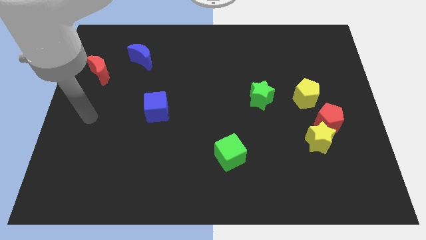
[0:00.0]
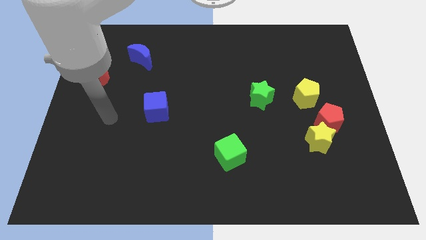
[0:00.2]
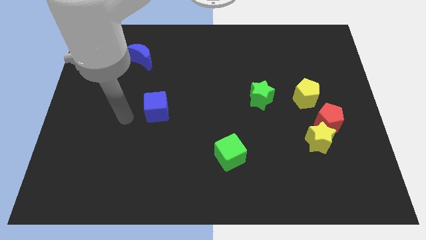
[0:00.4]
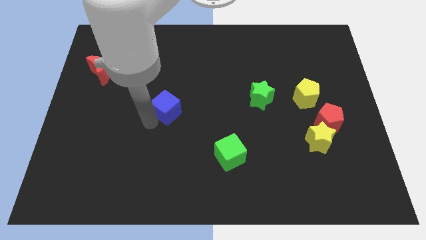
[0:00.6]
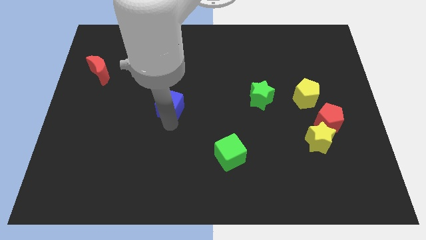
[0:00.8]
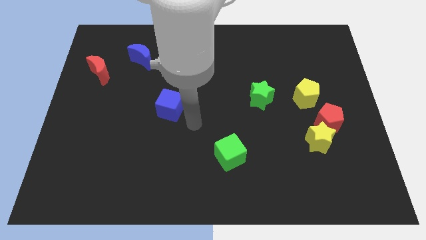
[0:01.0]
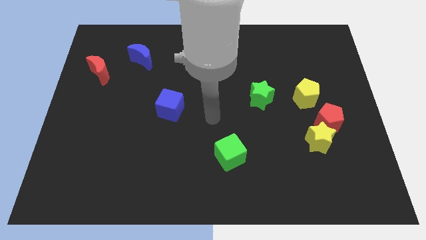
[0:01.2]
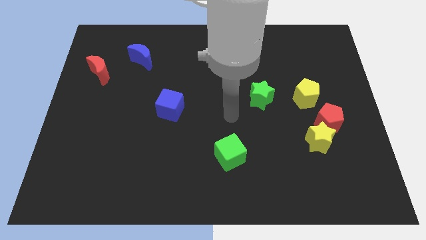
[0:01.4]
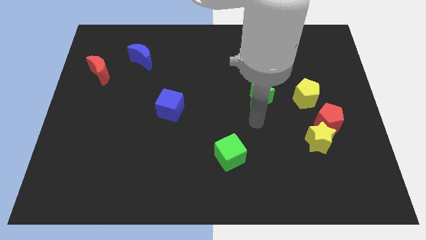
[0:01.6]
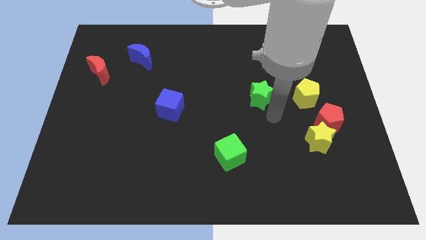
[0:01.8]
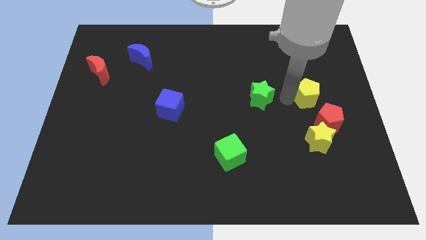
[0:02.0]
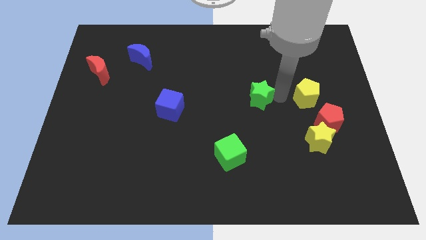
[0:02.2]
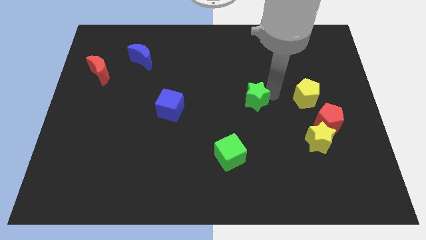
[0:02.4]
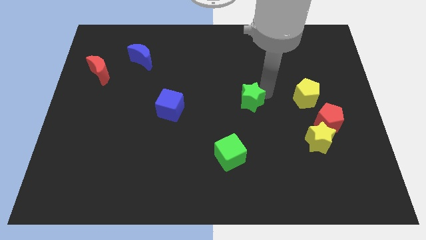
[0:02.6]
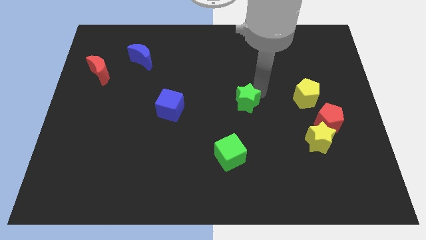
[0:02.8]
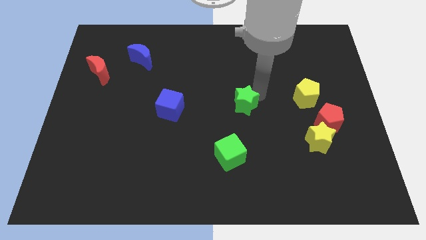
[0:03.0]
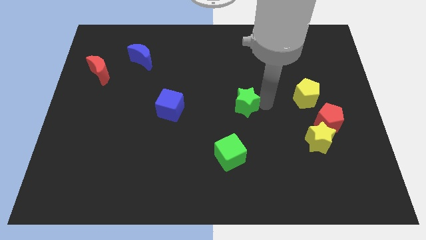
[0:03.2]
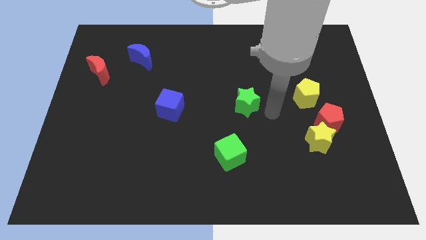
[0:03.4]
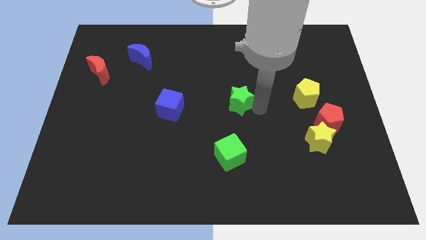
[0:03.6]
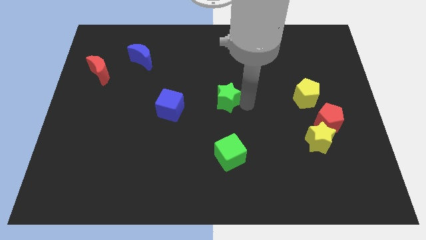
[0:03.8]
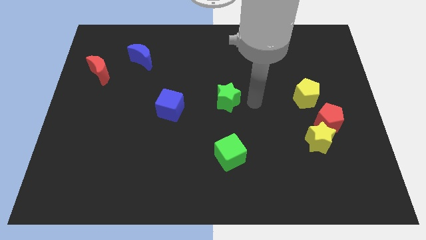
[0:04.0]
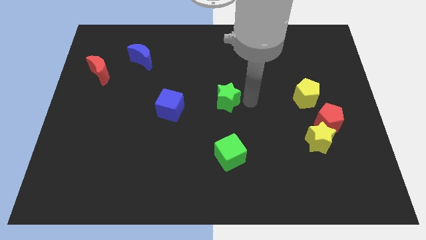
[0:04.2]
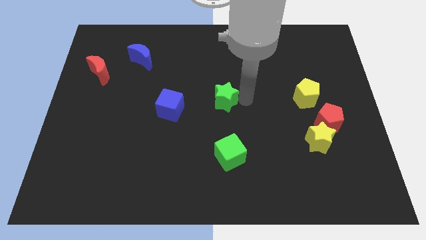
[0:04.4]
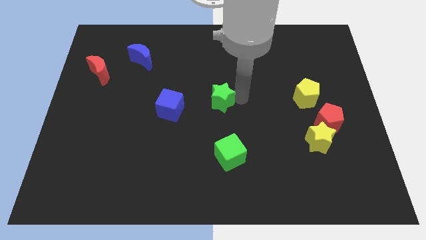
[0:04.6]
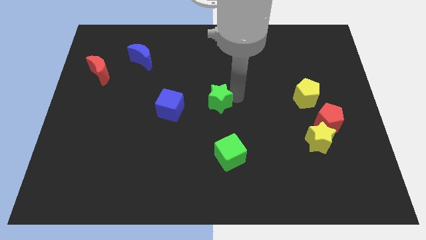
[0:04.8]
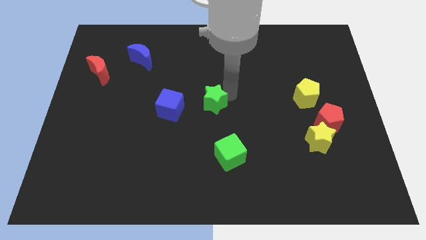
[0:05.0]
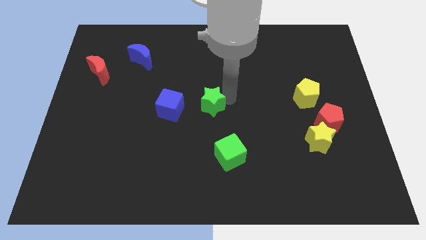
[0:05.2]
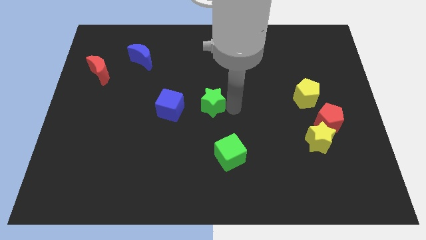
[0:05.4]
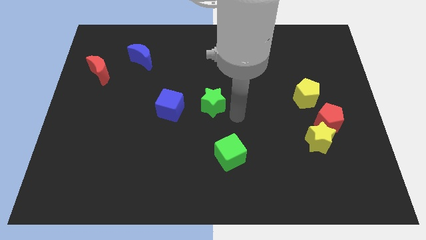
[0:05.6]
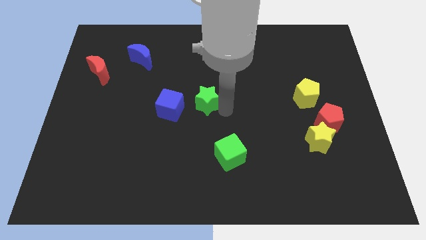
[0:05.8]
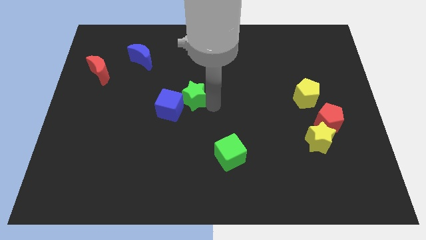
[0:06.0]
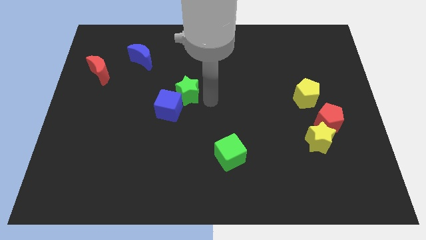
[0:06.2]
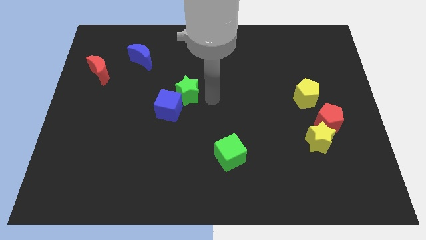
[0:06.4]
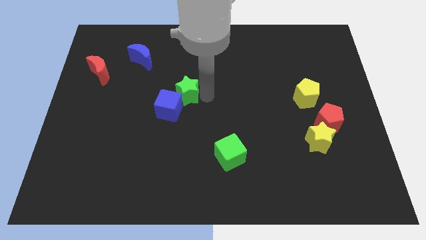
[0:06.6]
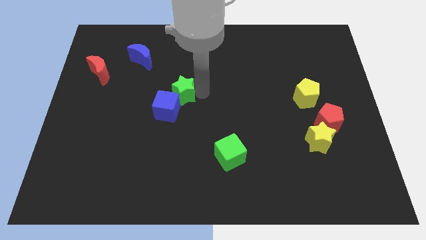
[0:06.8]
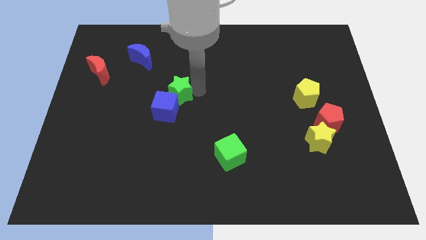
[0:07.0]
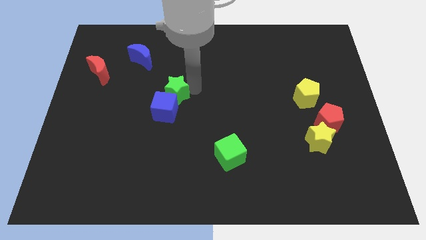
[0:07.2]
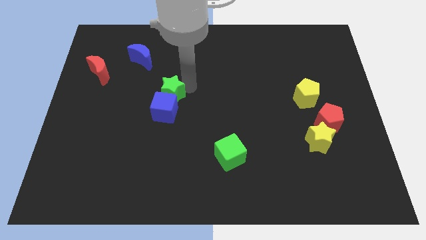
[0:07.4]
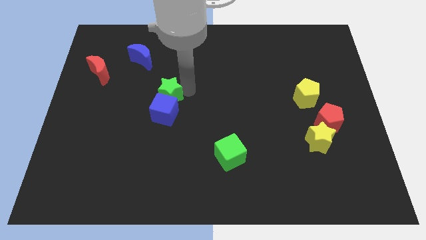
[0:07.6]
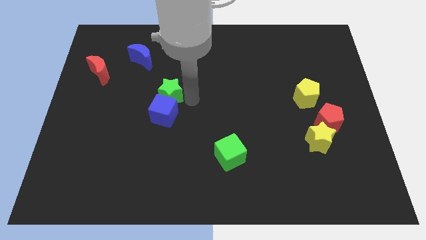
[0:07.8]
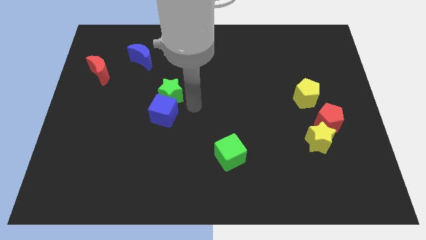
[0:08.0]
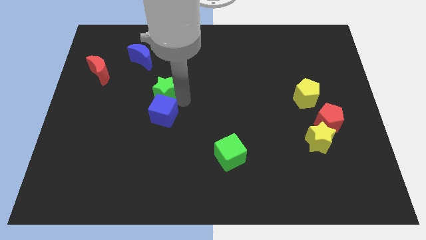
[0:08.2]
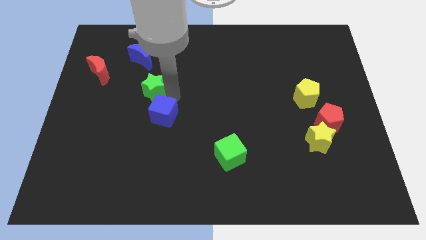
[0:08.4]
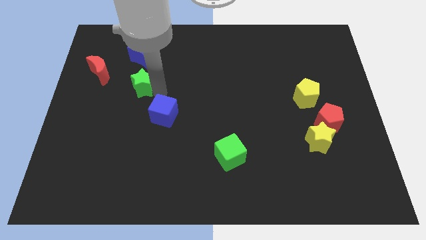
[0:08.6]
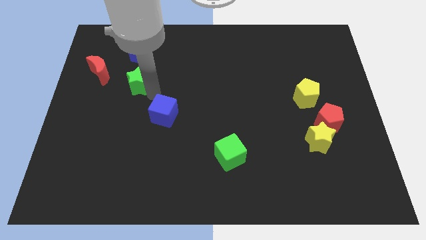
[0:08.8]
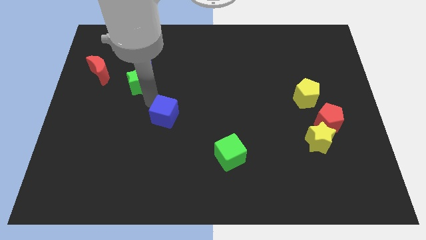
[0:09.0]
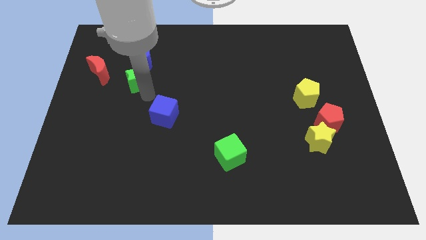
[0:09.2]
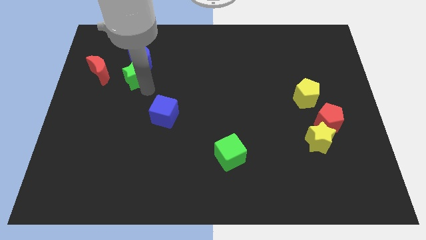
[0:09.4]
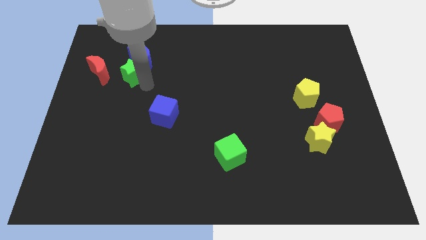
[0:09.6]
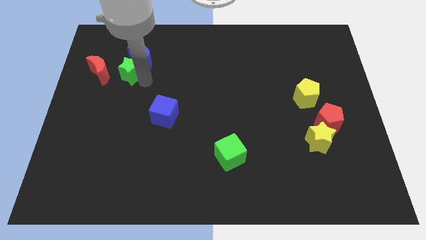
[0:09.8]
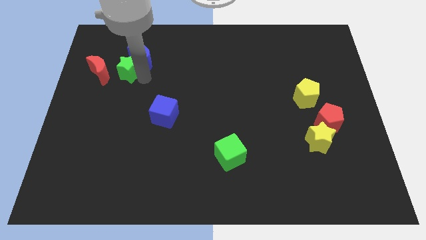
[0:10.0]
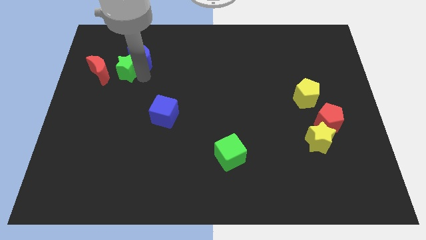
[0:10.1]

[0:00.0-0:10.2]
put the green star left of the blue moon

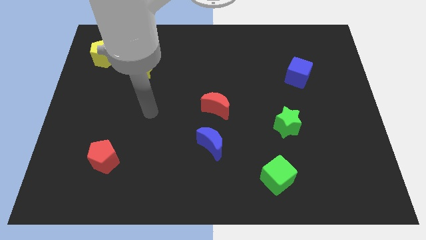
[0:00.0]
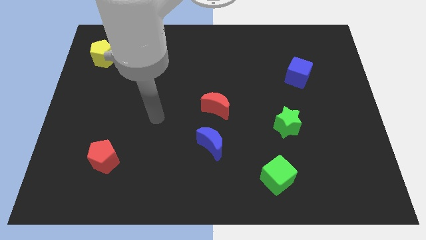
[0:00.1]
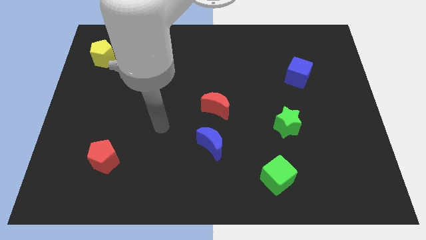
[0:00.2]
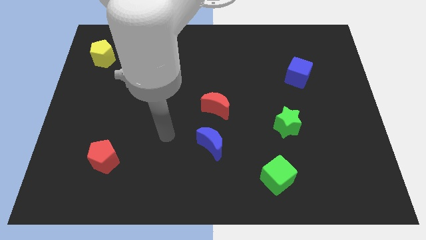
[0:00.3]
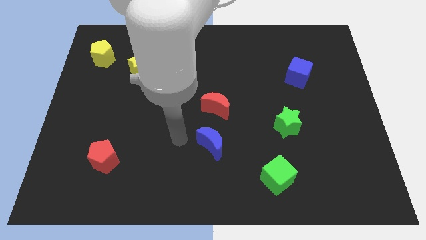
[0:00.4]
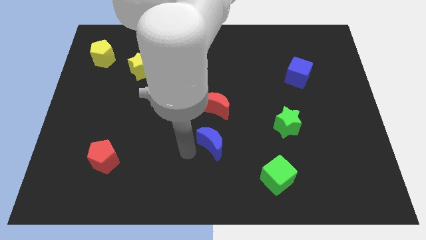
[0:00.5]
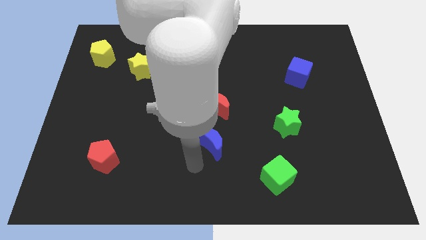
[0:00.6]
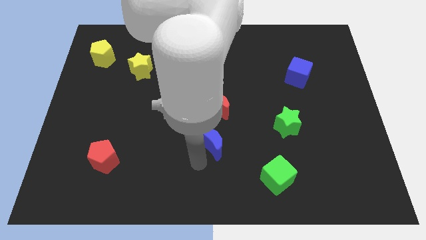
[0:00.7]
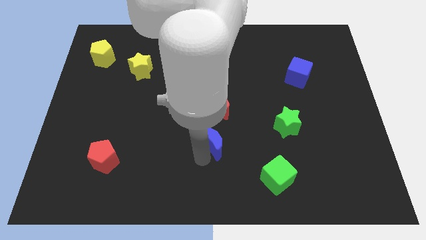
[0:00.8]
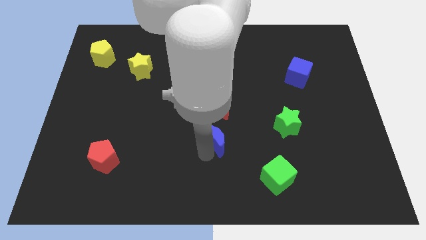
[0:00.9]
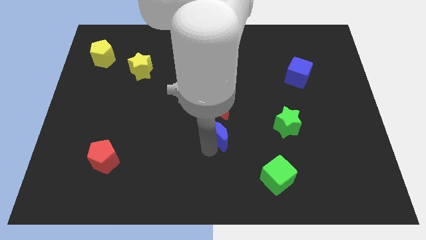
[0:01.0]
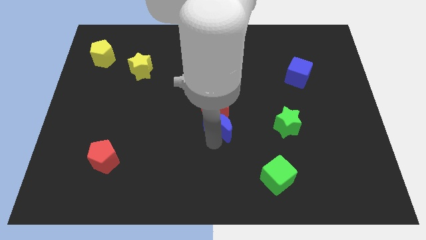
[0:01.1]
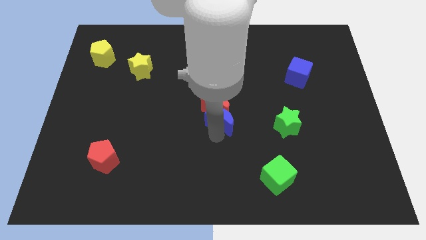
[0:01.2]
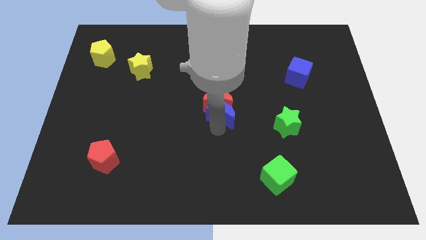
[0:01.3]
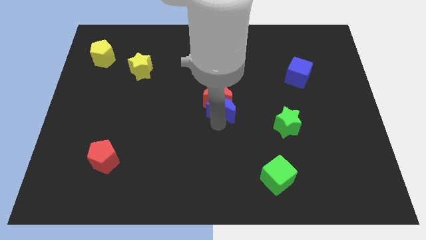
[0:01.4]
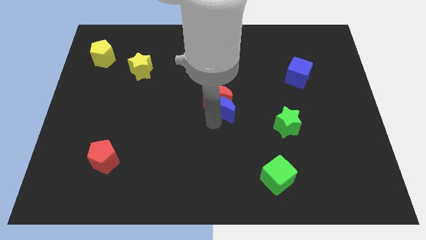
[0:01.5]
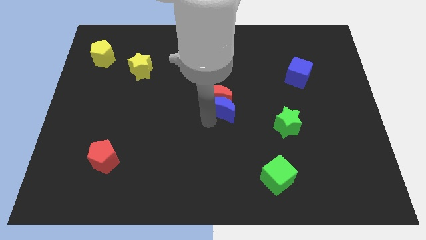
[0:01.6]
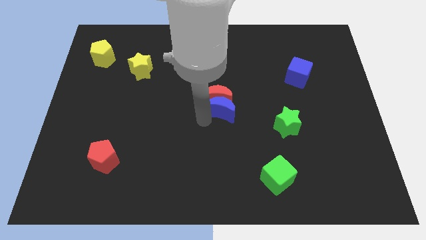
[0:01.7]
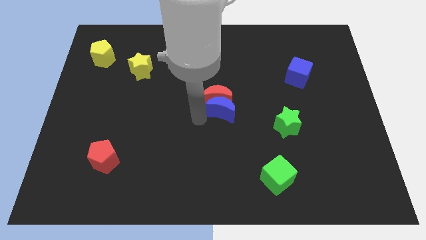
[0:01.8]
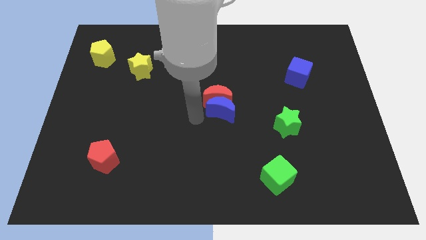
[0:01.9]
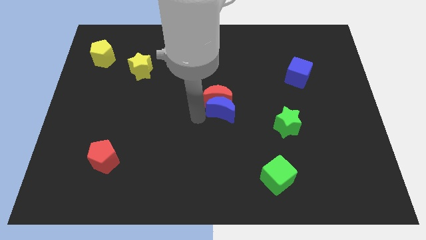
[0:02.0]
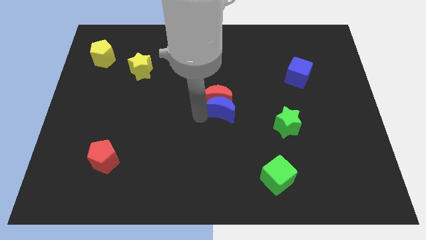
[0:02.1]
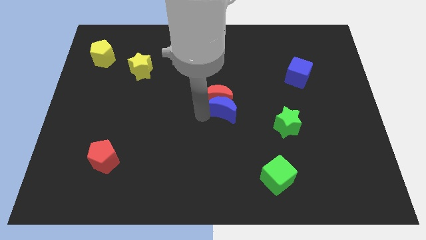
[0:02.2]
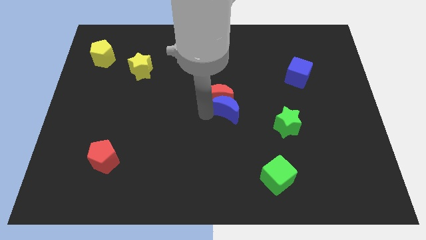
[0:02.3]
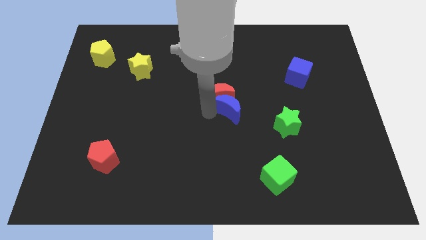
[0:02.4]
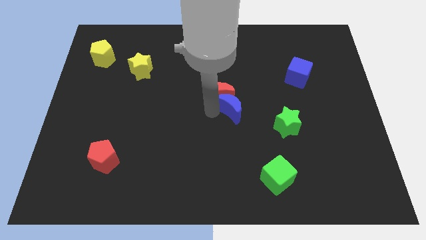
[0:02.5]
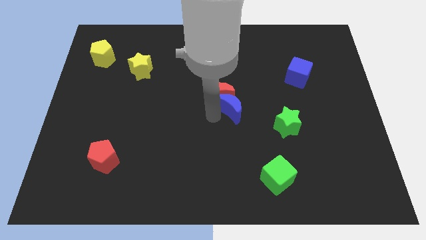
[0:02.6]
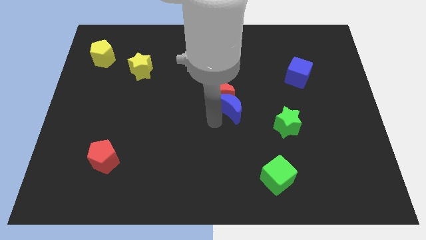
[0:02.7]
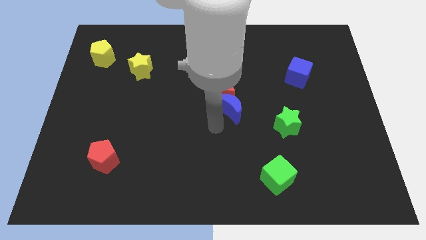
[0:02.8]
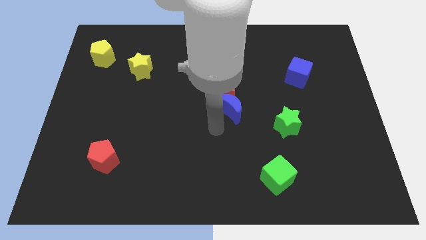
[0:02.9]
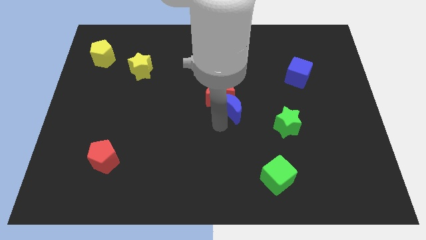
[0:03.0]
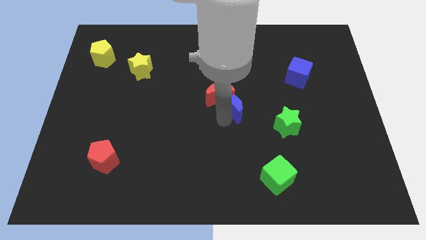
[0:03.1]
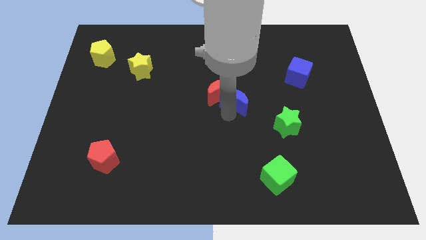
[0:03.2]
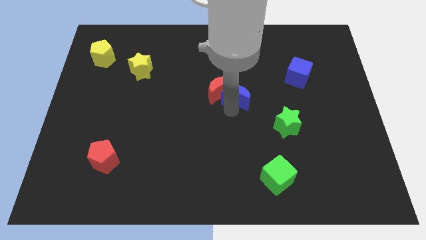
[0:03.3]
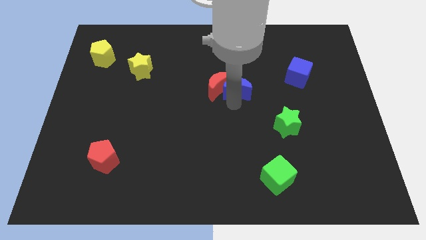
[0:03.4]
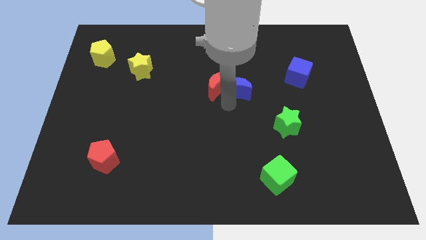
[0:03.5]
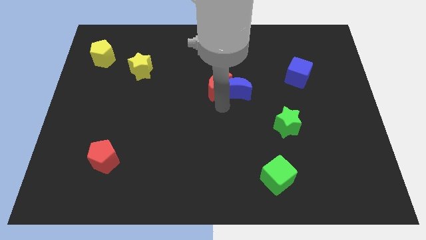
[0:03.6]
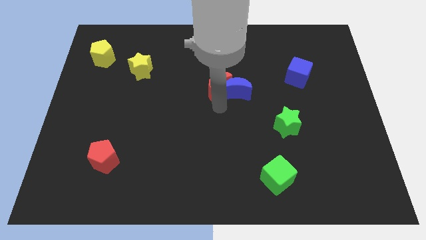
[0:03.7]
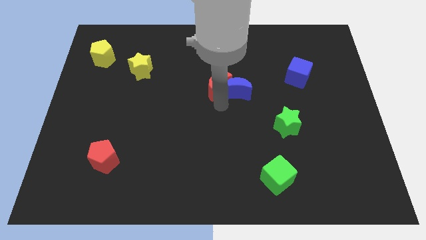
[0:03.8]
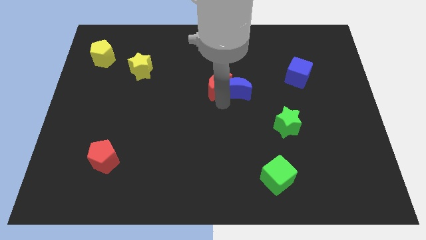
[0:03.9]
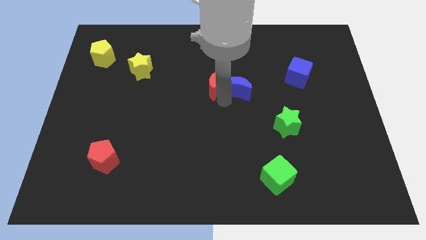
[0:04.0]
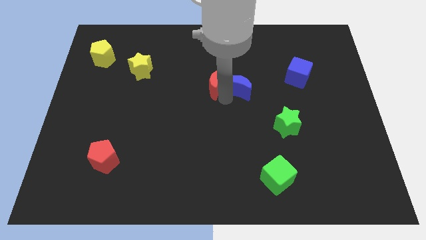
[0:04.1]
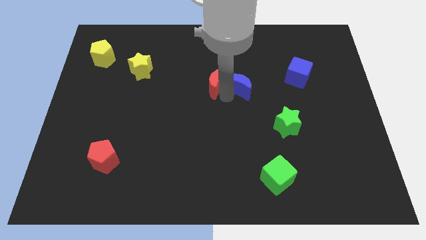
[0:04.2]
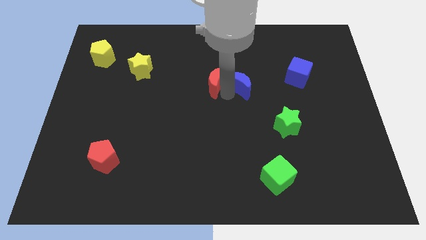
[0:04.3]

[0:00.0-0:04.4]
move the blue moon to the left of the blue cube
